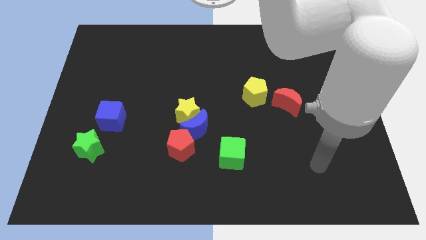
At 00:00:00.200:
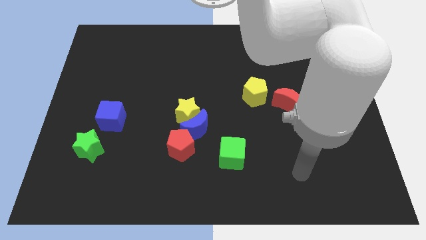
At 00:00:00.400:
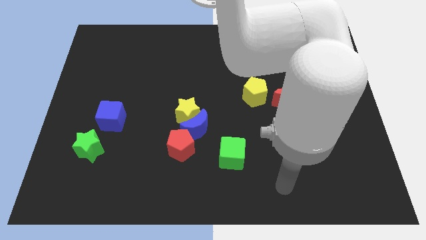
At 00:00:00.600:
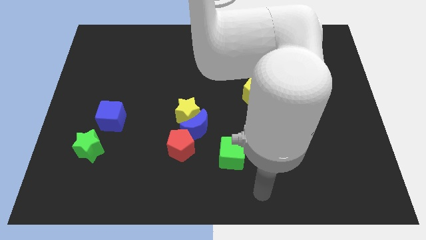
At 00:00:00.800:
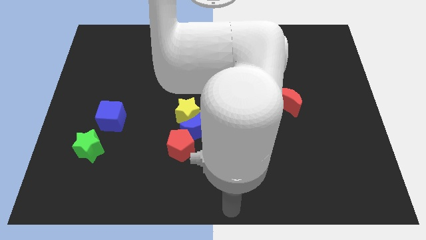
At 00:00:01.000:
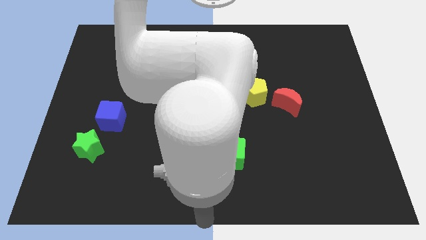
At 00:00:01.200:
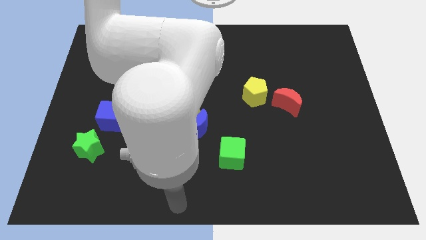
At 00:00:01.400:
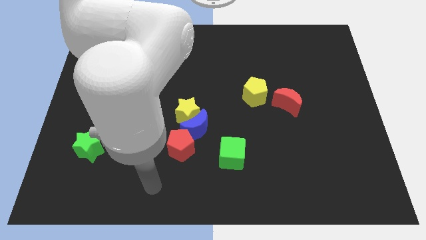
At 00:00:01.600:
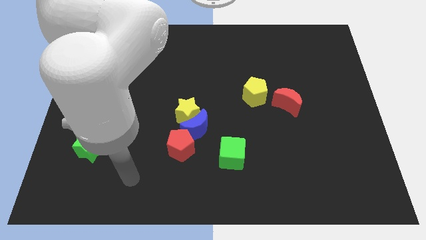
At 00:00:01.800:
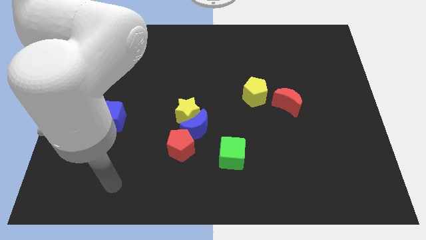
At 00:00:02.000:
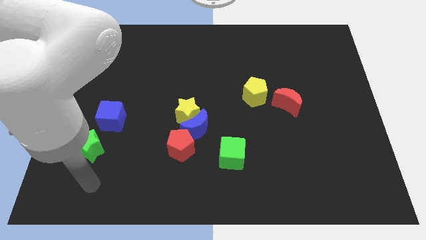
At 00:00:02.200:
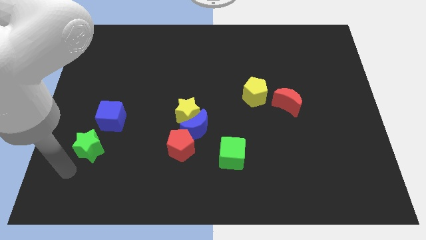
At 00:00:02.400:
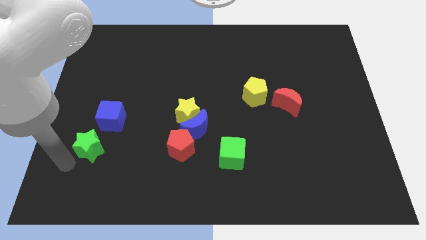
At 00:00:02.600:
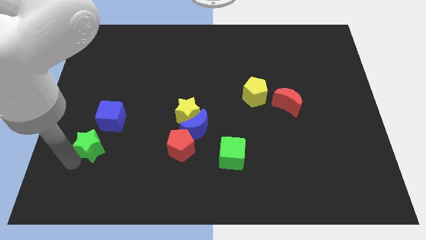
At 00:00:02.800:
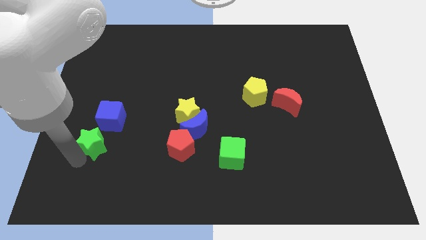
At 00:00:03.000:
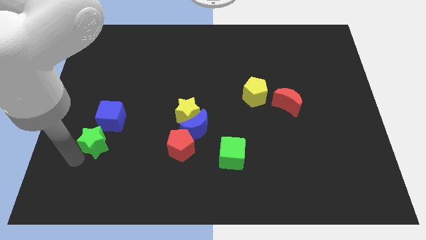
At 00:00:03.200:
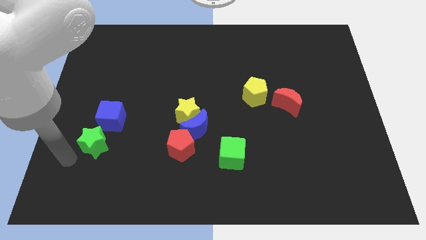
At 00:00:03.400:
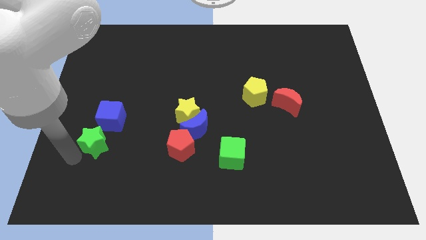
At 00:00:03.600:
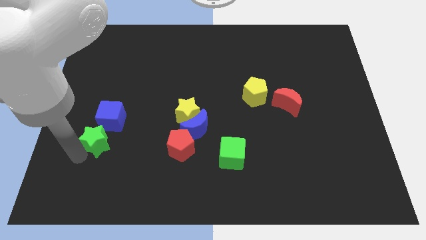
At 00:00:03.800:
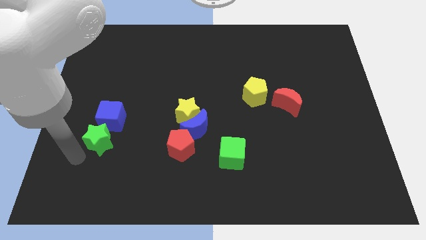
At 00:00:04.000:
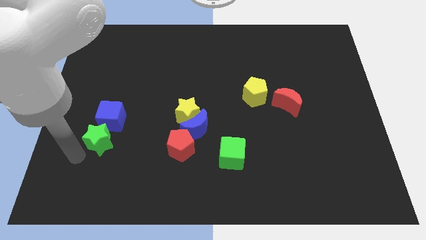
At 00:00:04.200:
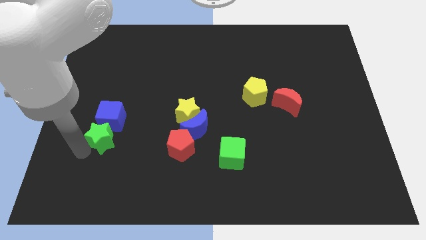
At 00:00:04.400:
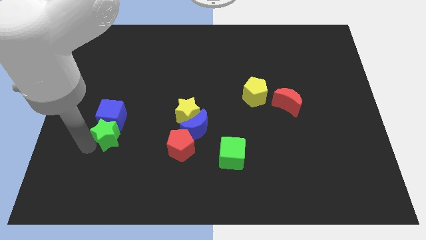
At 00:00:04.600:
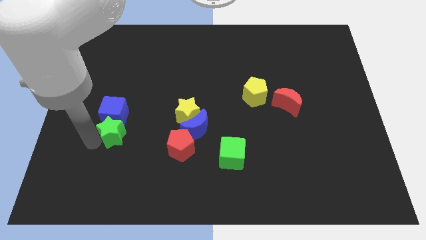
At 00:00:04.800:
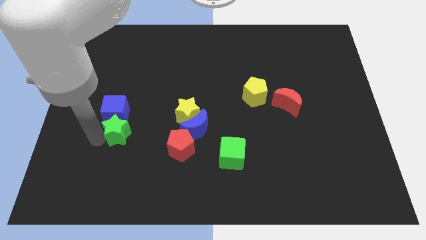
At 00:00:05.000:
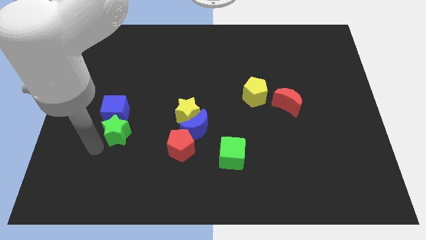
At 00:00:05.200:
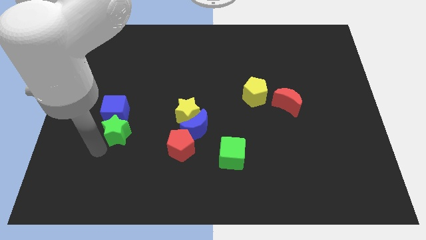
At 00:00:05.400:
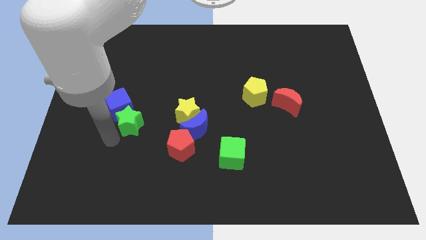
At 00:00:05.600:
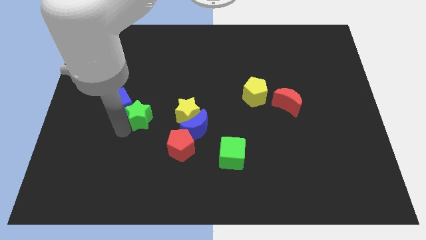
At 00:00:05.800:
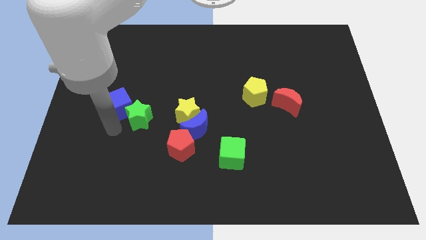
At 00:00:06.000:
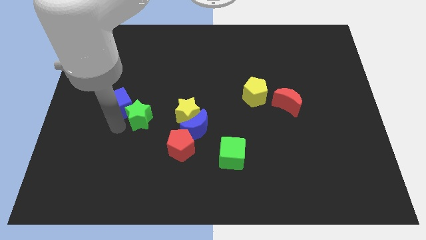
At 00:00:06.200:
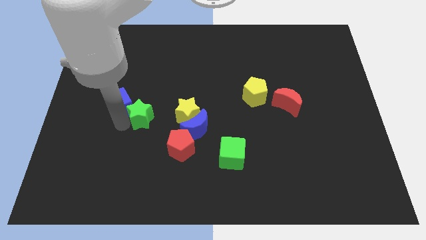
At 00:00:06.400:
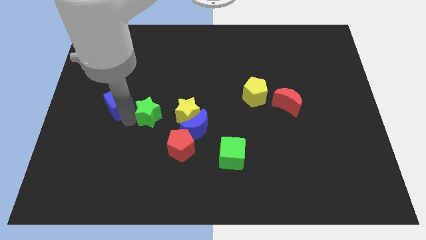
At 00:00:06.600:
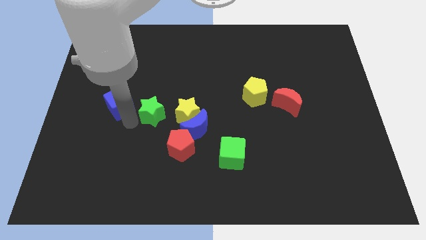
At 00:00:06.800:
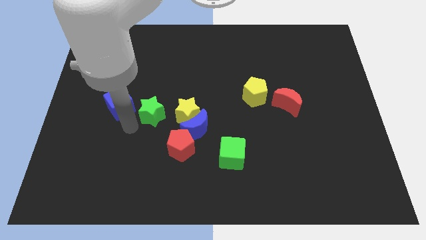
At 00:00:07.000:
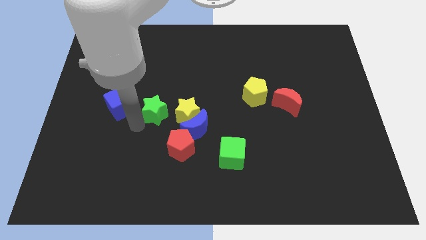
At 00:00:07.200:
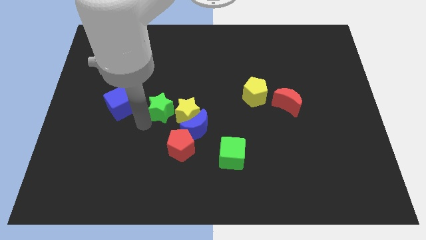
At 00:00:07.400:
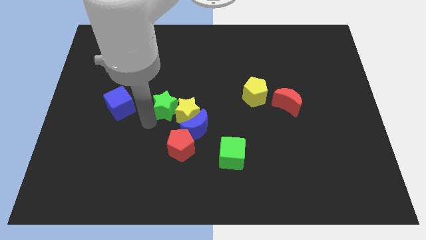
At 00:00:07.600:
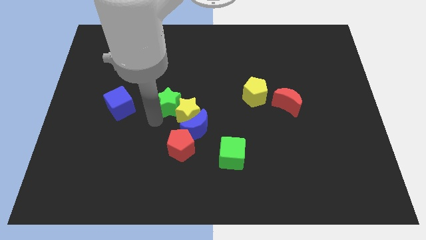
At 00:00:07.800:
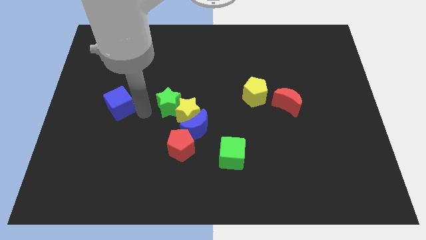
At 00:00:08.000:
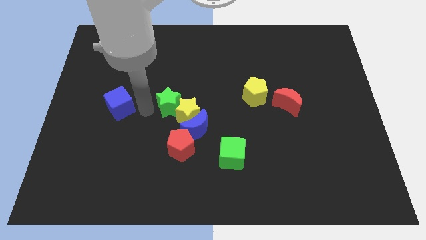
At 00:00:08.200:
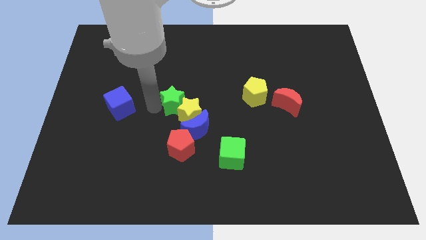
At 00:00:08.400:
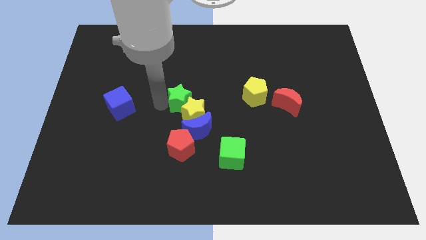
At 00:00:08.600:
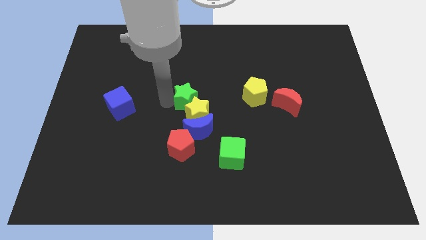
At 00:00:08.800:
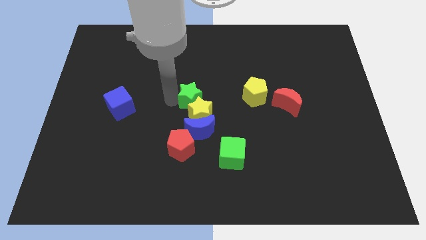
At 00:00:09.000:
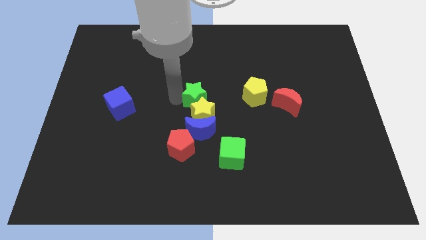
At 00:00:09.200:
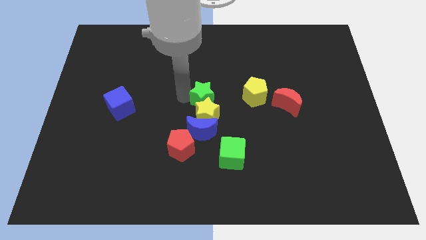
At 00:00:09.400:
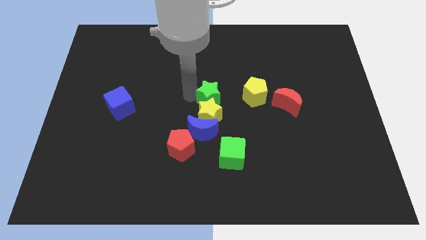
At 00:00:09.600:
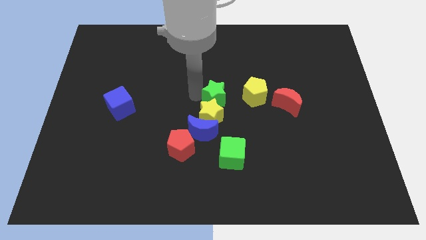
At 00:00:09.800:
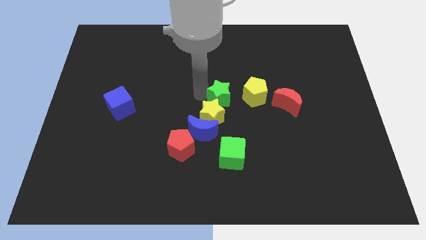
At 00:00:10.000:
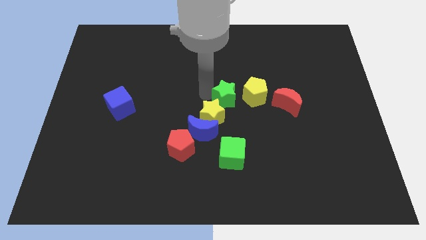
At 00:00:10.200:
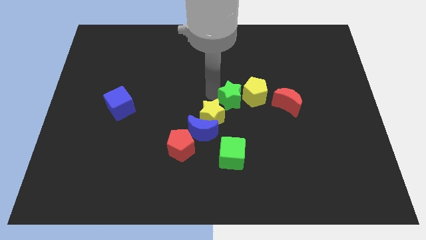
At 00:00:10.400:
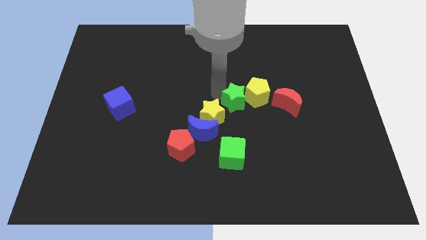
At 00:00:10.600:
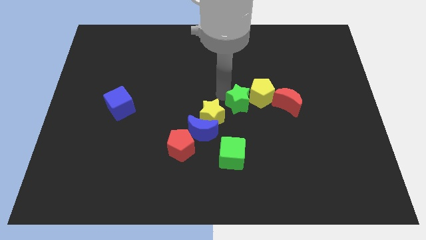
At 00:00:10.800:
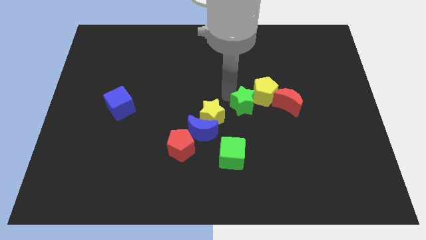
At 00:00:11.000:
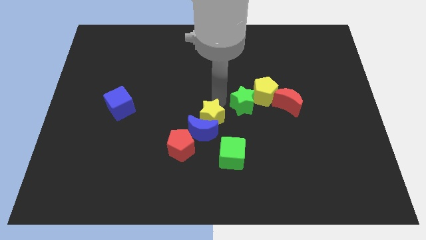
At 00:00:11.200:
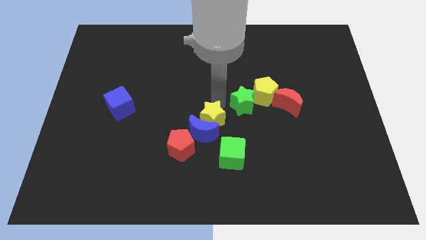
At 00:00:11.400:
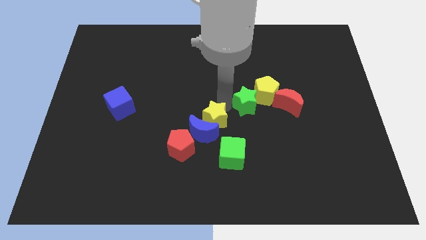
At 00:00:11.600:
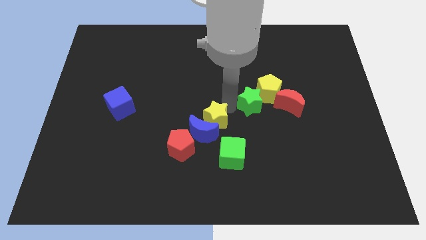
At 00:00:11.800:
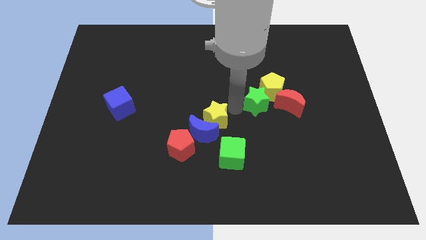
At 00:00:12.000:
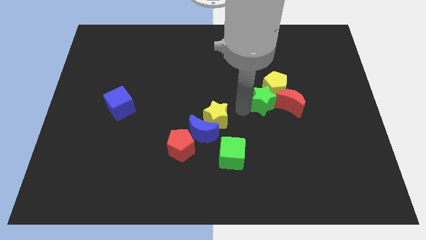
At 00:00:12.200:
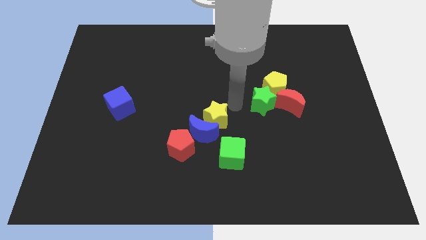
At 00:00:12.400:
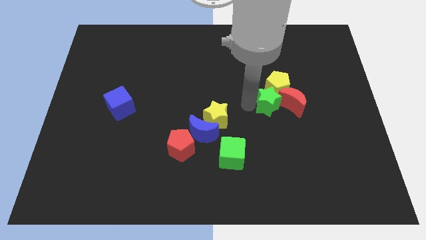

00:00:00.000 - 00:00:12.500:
push the green star towards the red moon
